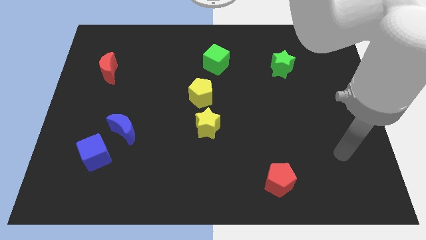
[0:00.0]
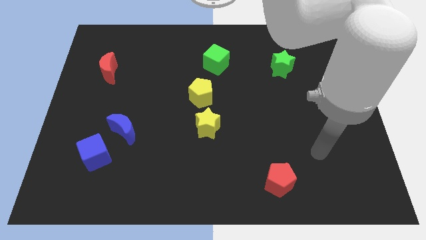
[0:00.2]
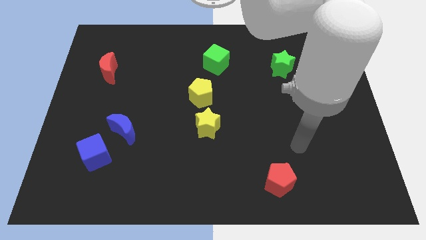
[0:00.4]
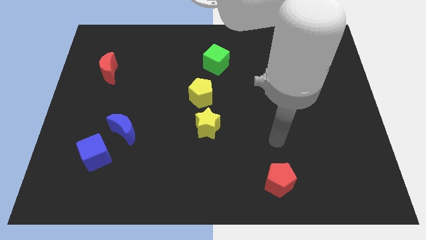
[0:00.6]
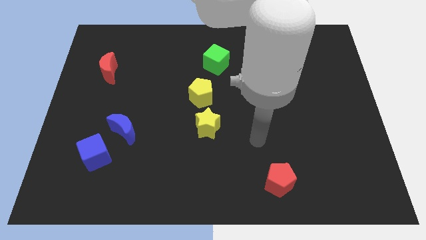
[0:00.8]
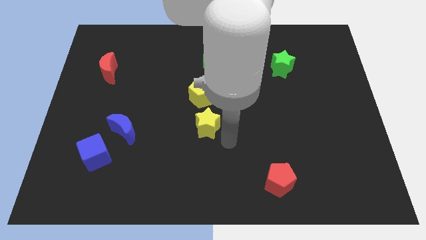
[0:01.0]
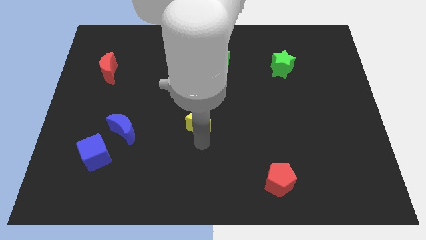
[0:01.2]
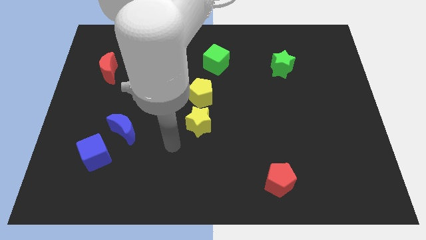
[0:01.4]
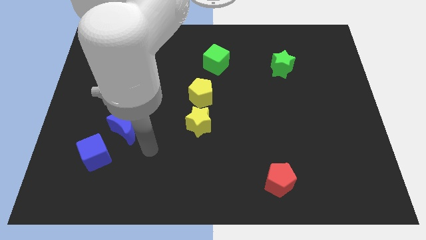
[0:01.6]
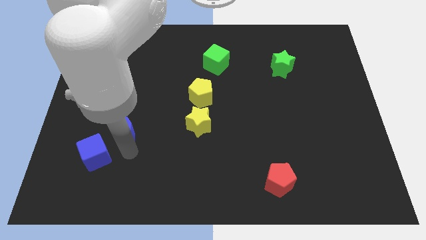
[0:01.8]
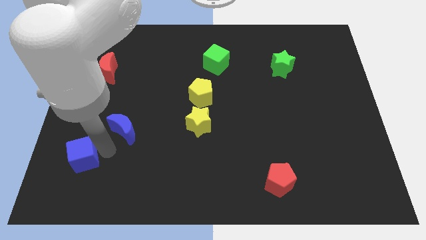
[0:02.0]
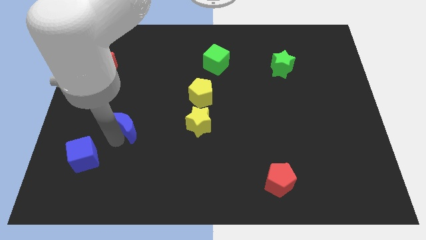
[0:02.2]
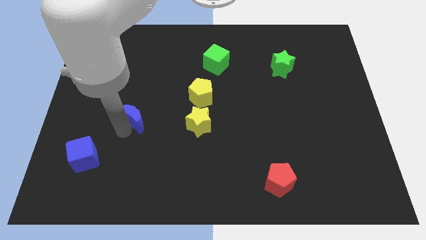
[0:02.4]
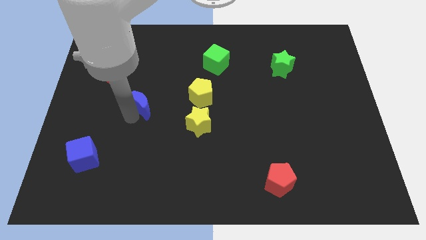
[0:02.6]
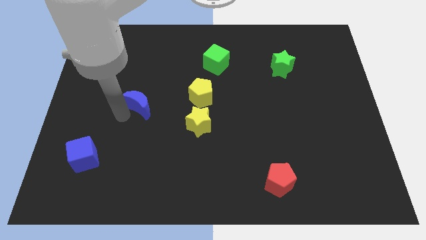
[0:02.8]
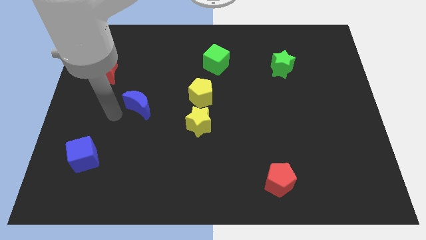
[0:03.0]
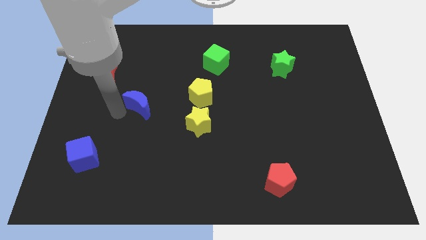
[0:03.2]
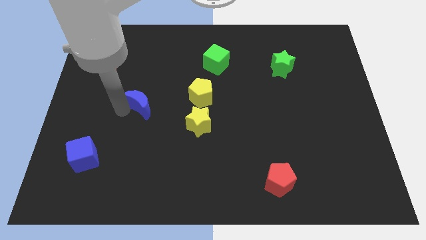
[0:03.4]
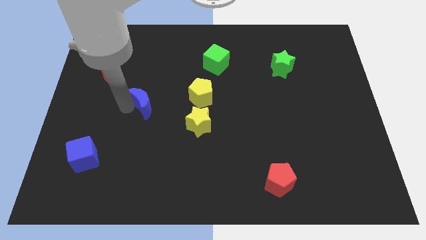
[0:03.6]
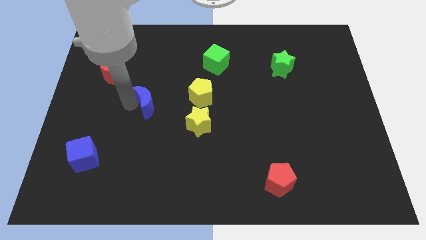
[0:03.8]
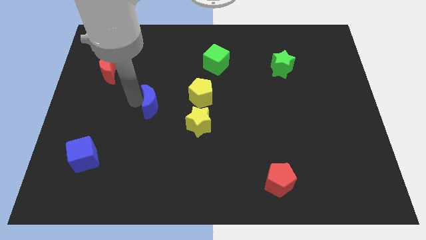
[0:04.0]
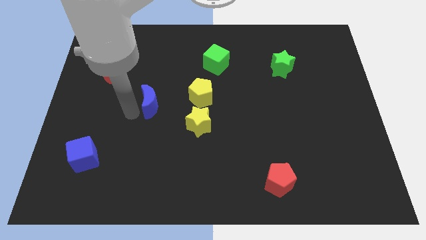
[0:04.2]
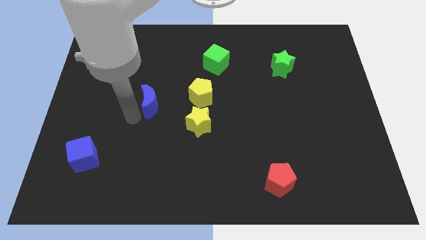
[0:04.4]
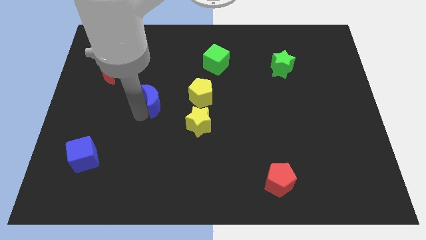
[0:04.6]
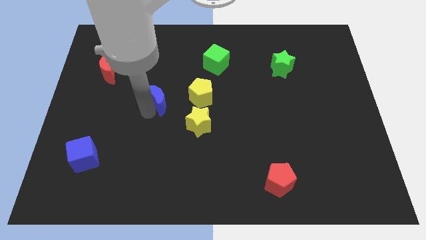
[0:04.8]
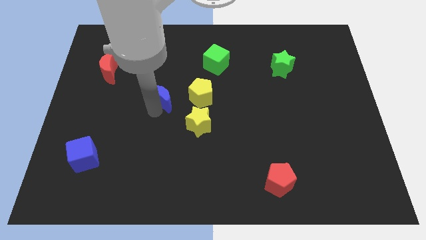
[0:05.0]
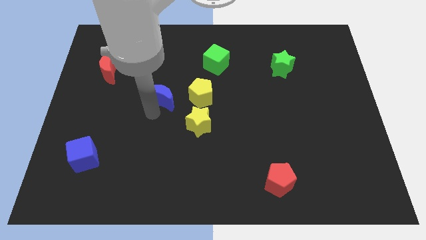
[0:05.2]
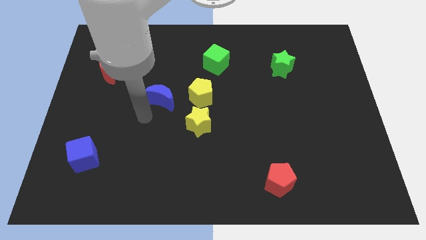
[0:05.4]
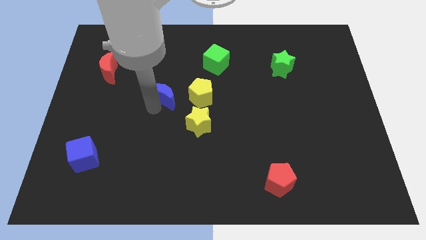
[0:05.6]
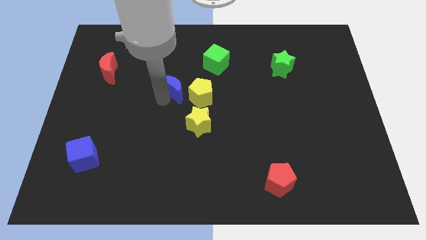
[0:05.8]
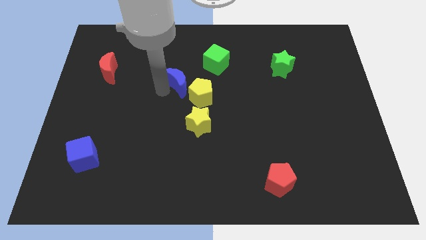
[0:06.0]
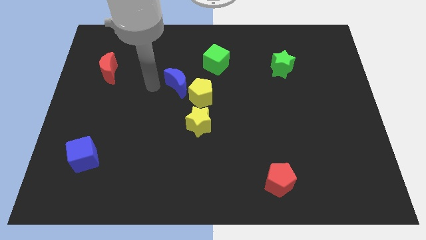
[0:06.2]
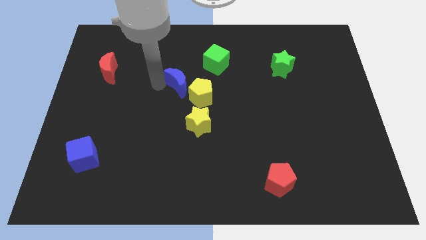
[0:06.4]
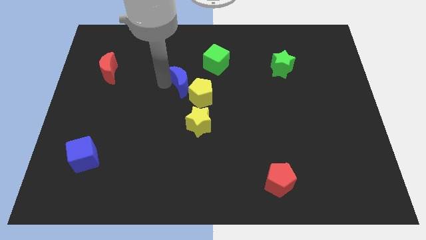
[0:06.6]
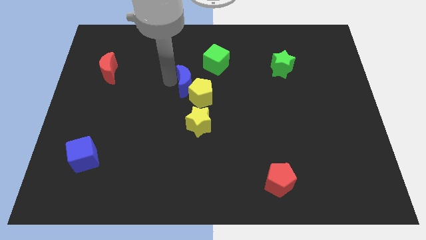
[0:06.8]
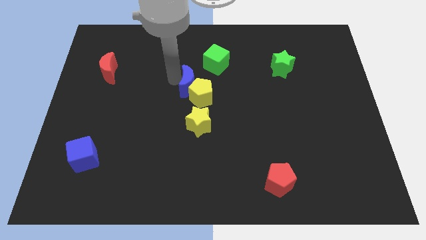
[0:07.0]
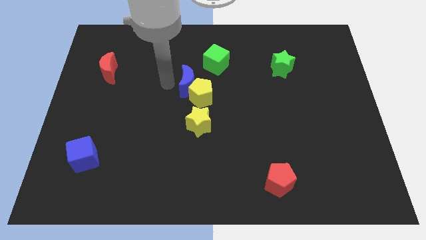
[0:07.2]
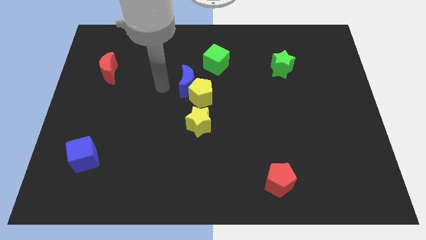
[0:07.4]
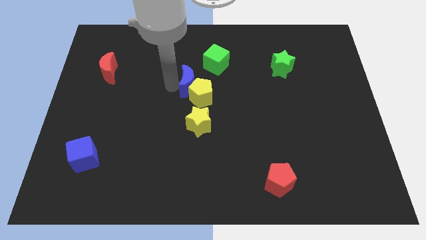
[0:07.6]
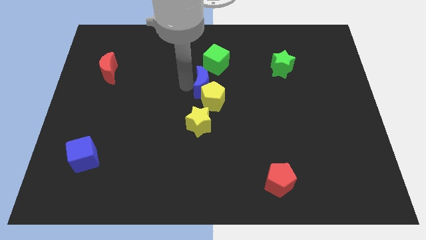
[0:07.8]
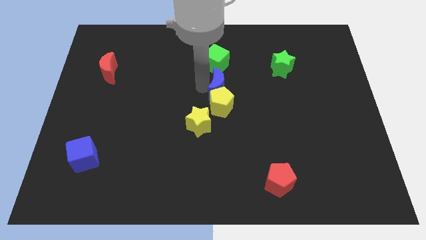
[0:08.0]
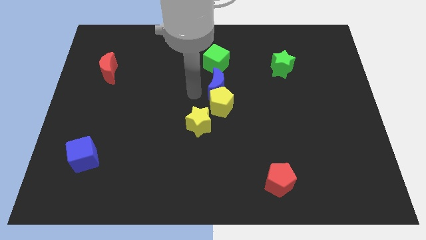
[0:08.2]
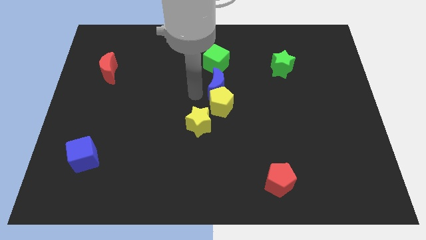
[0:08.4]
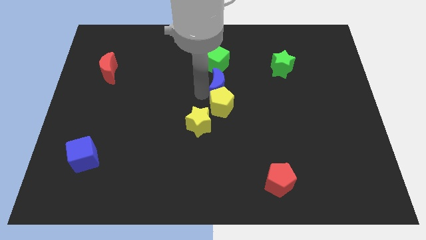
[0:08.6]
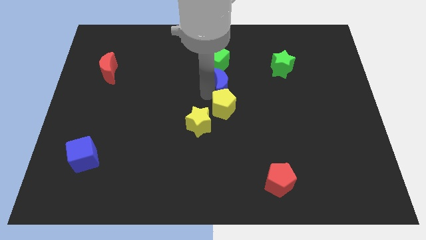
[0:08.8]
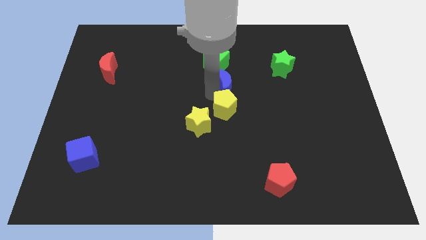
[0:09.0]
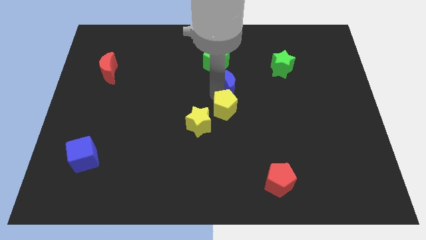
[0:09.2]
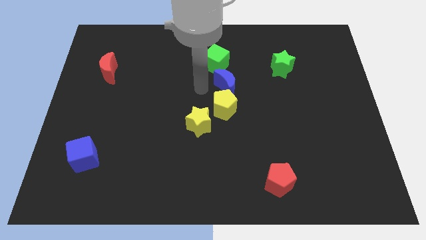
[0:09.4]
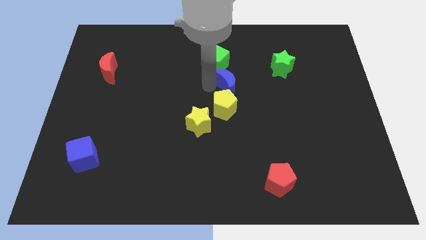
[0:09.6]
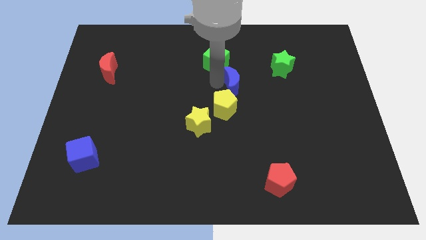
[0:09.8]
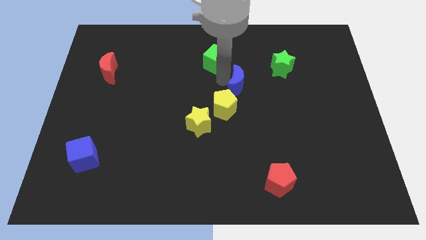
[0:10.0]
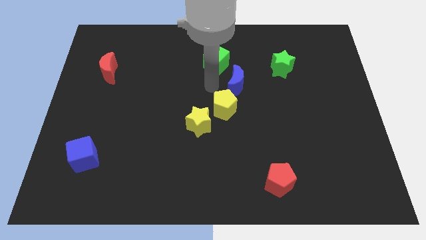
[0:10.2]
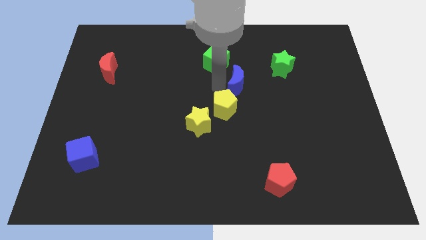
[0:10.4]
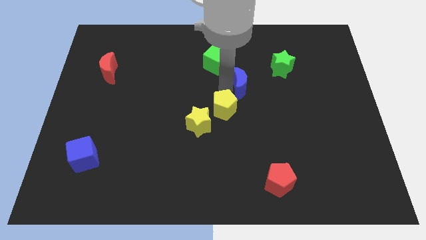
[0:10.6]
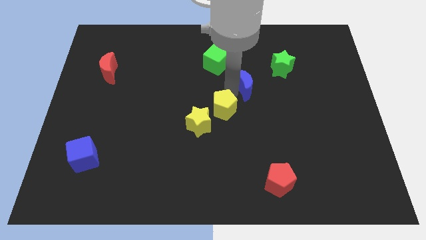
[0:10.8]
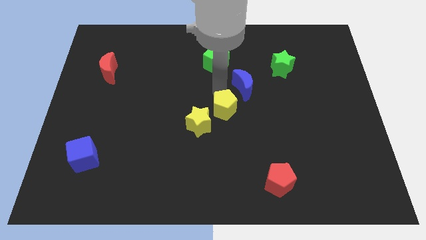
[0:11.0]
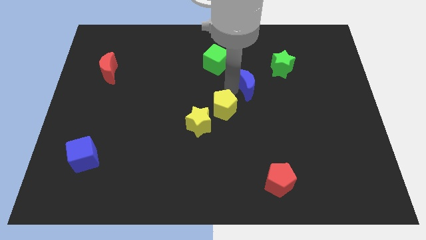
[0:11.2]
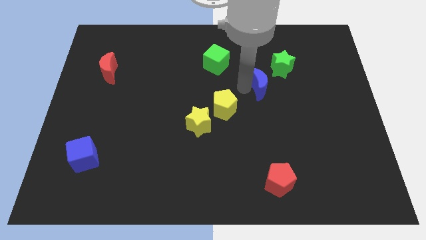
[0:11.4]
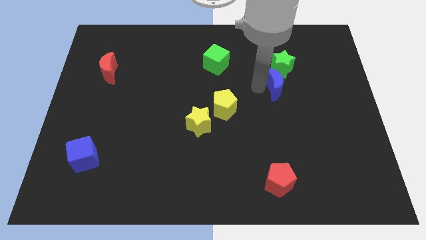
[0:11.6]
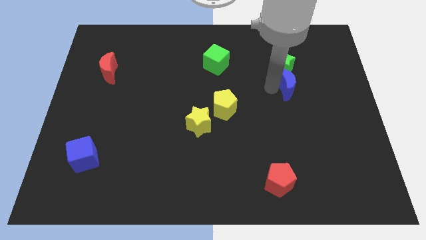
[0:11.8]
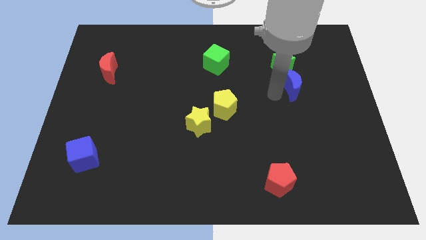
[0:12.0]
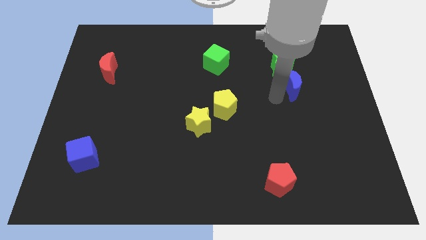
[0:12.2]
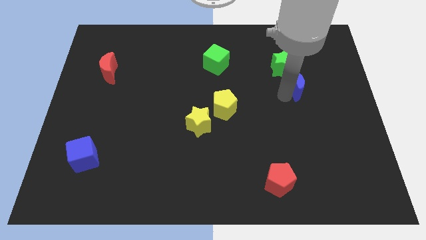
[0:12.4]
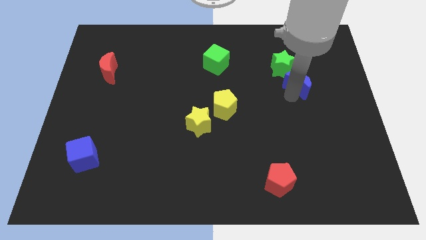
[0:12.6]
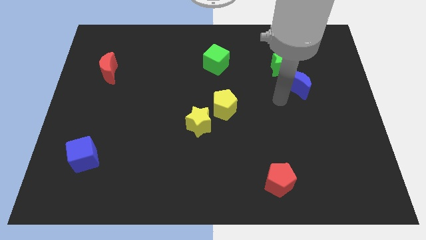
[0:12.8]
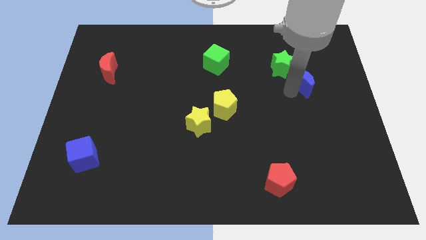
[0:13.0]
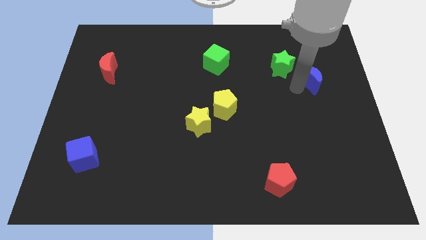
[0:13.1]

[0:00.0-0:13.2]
move the blue moon right of the green star
